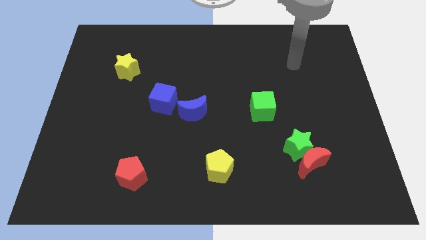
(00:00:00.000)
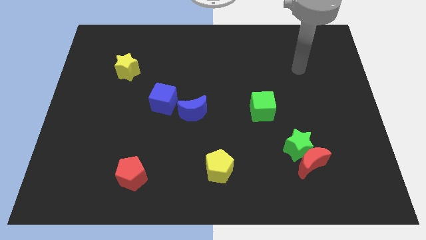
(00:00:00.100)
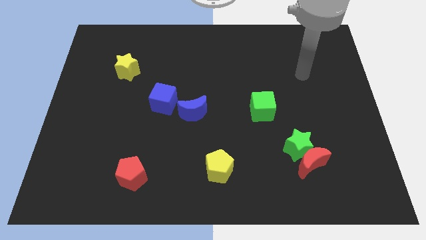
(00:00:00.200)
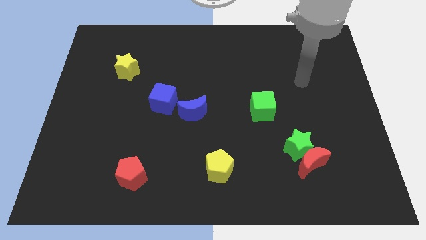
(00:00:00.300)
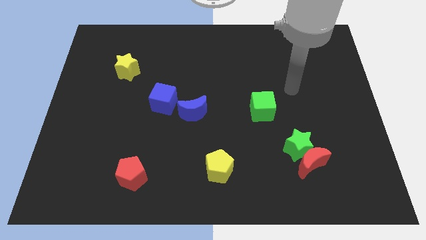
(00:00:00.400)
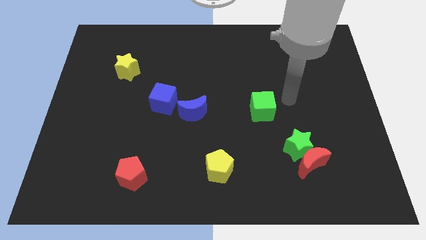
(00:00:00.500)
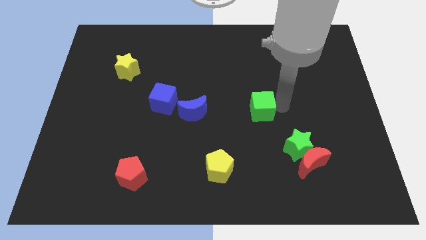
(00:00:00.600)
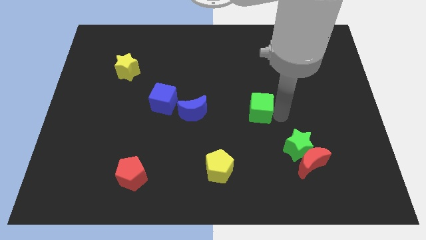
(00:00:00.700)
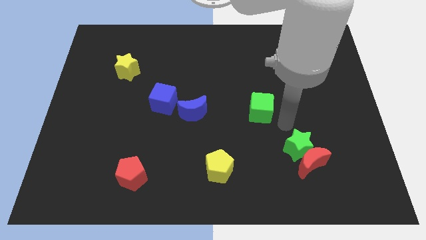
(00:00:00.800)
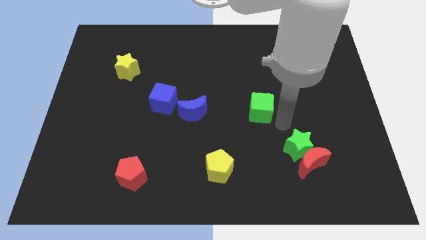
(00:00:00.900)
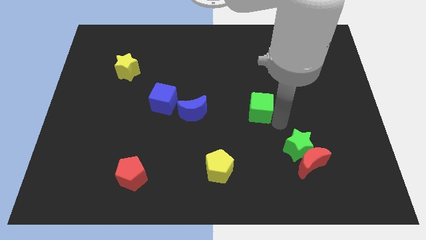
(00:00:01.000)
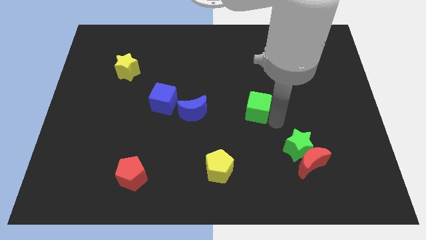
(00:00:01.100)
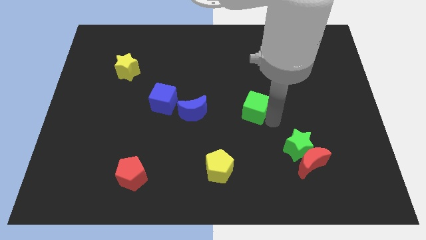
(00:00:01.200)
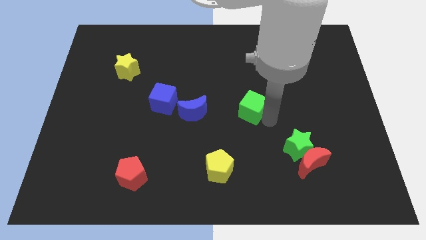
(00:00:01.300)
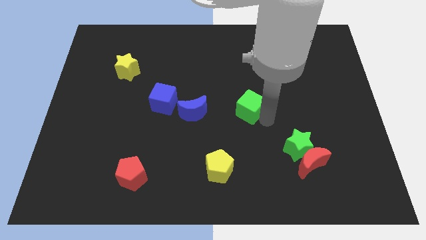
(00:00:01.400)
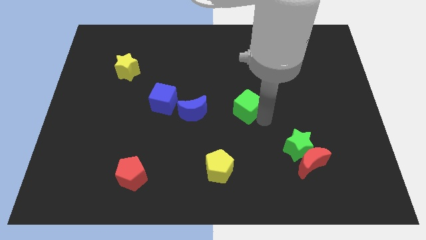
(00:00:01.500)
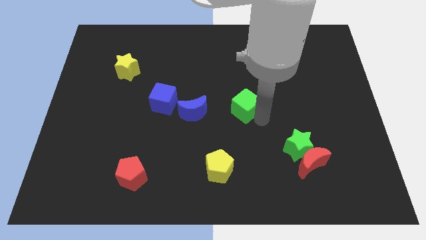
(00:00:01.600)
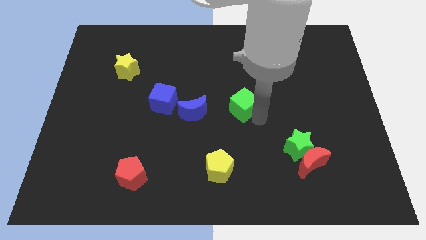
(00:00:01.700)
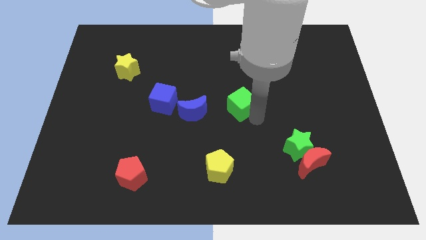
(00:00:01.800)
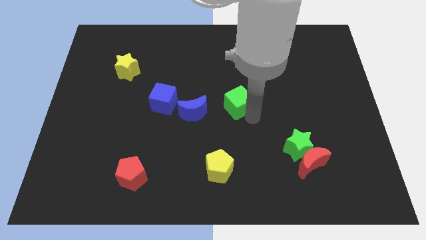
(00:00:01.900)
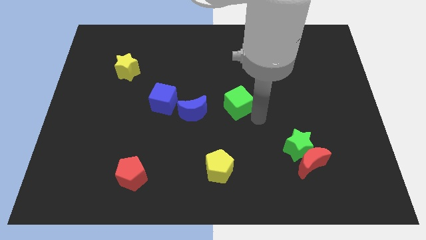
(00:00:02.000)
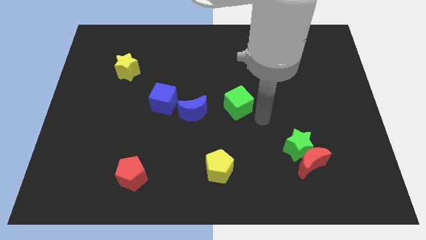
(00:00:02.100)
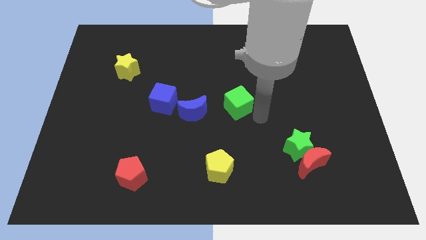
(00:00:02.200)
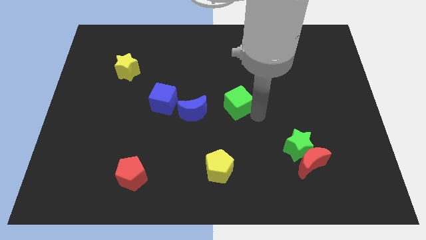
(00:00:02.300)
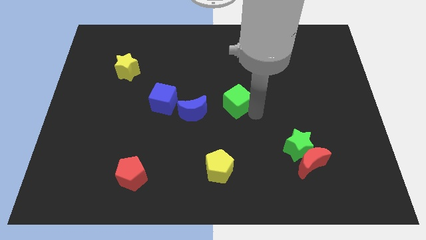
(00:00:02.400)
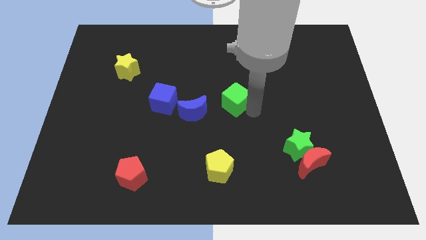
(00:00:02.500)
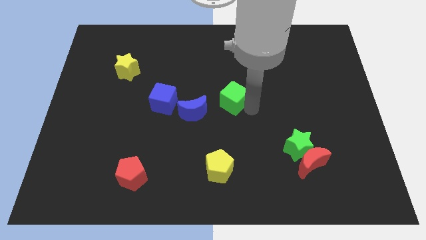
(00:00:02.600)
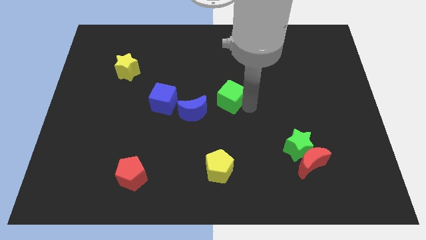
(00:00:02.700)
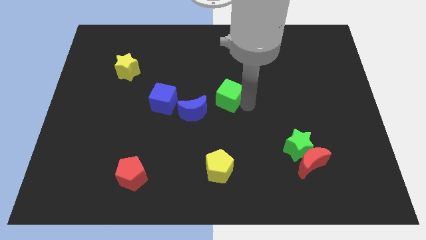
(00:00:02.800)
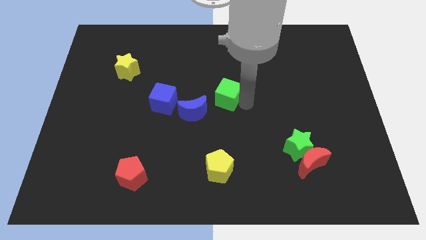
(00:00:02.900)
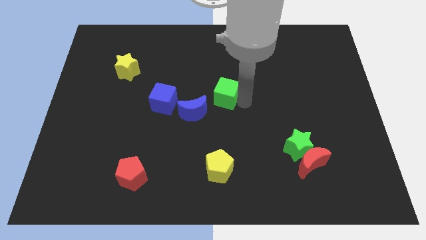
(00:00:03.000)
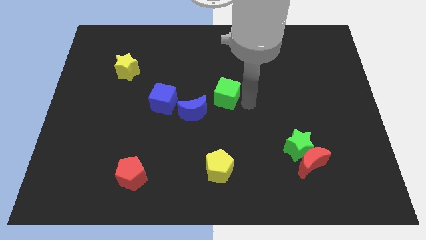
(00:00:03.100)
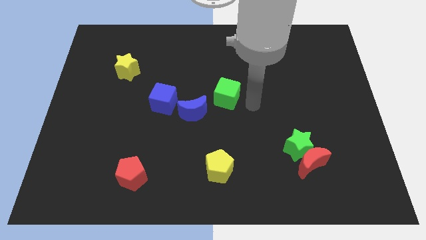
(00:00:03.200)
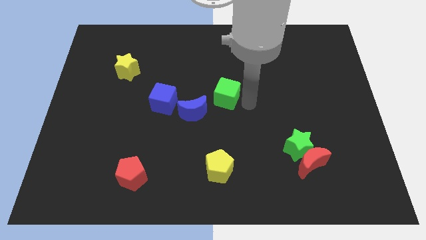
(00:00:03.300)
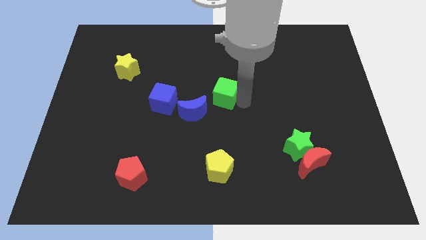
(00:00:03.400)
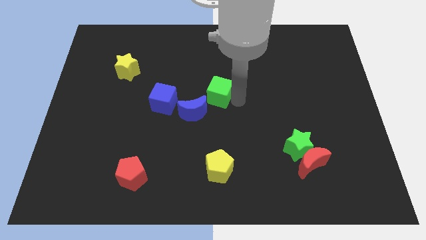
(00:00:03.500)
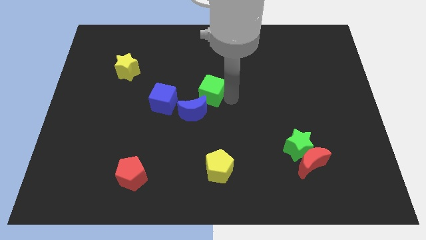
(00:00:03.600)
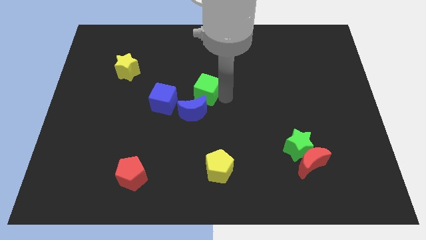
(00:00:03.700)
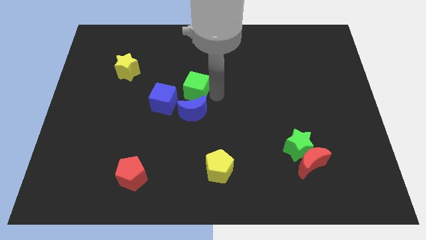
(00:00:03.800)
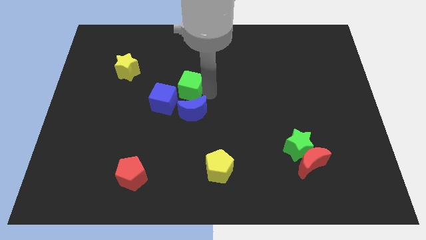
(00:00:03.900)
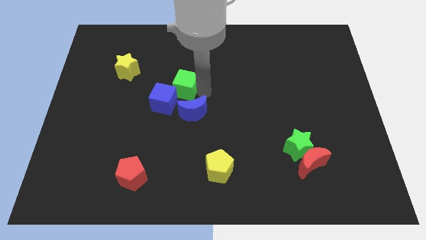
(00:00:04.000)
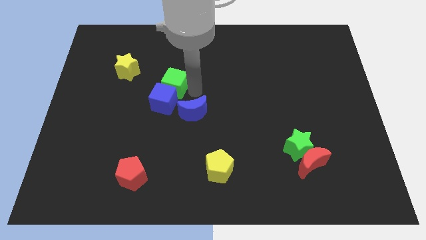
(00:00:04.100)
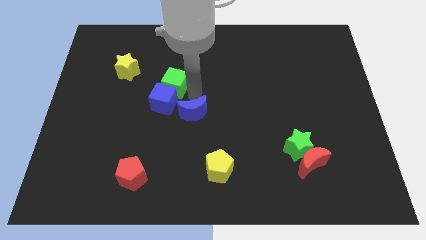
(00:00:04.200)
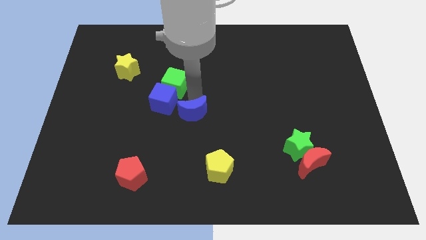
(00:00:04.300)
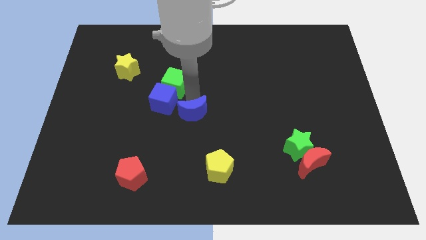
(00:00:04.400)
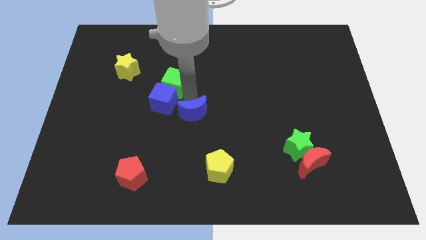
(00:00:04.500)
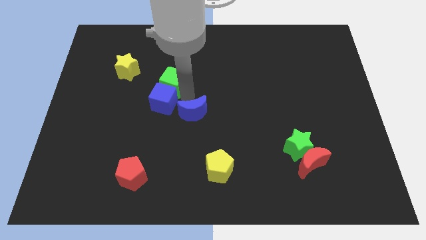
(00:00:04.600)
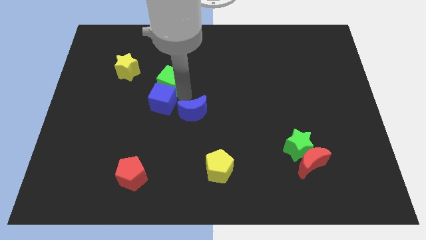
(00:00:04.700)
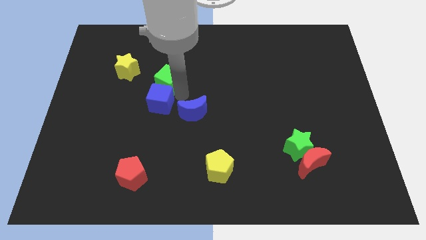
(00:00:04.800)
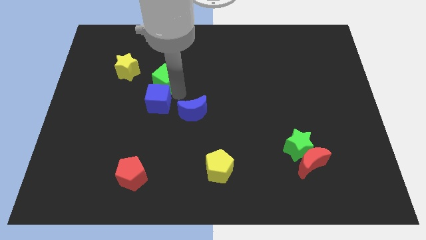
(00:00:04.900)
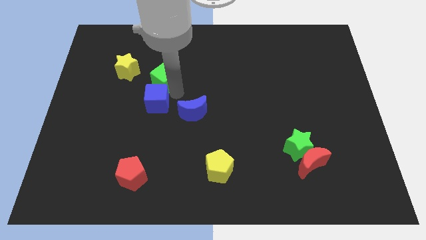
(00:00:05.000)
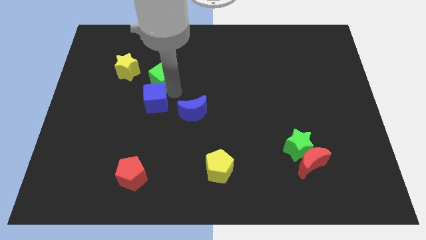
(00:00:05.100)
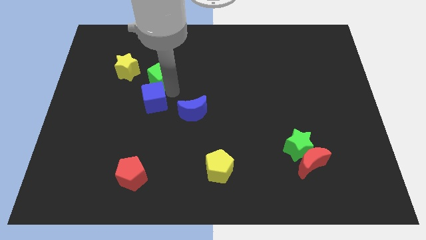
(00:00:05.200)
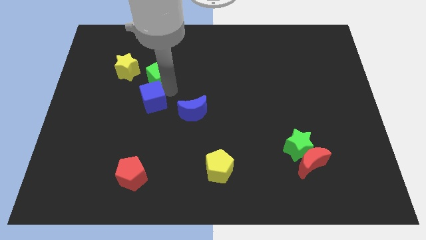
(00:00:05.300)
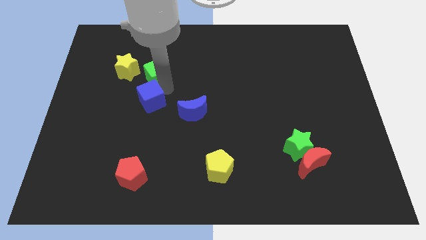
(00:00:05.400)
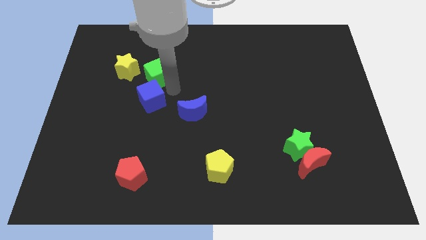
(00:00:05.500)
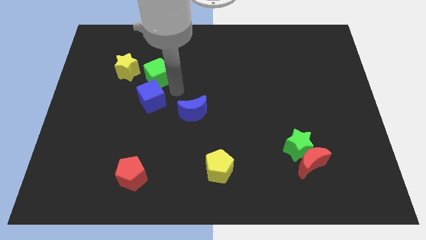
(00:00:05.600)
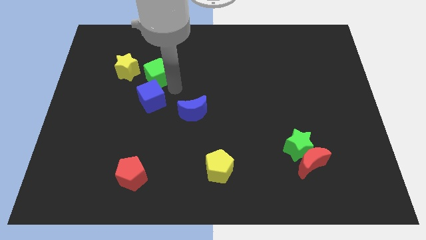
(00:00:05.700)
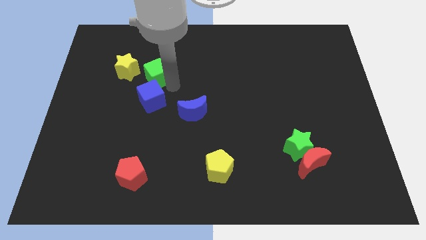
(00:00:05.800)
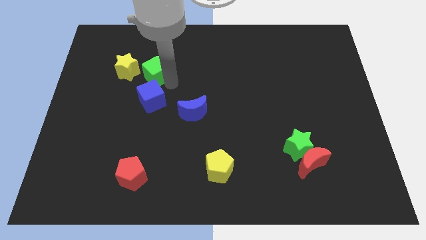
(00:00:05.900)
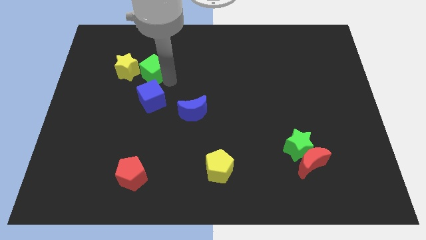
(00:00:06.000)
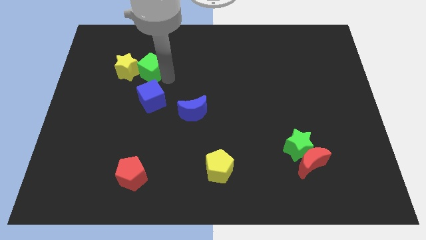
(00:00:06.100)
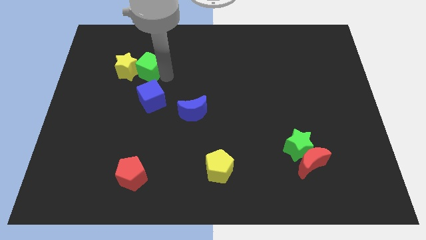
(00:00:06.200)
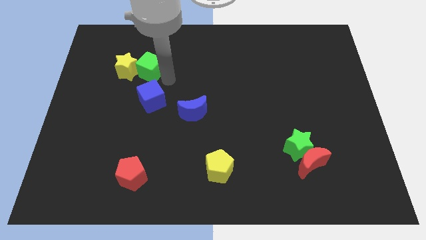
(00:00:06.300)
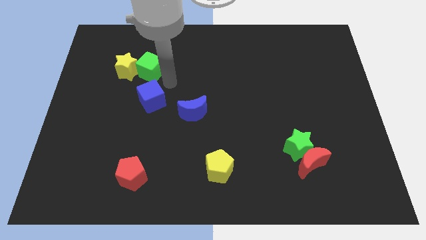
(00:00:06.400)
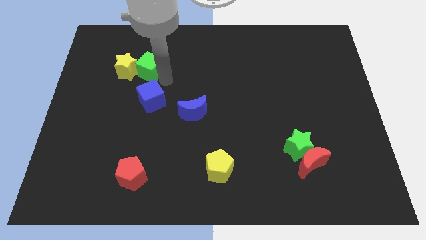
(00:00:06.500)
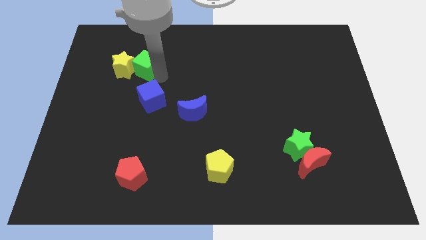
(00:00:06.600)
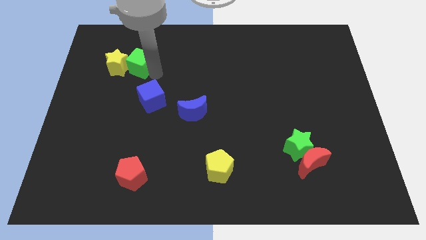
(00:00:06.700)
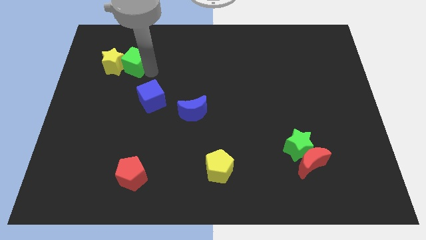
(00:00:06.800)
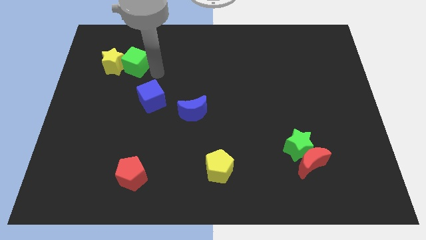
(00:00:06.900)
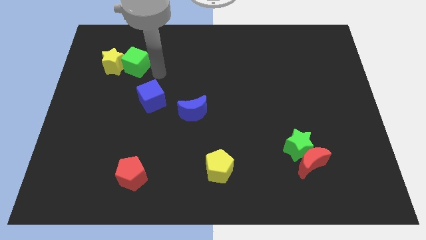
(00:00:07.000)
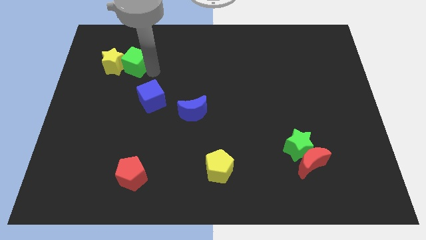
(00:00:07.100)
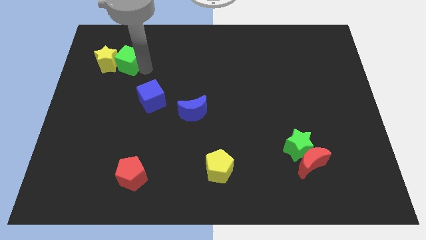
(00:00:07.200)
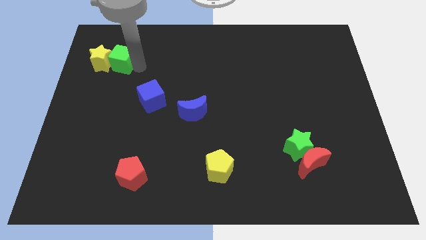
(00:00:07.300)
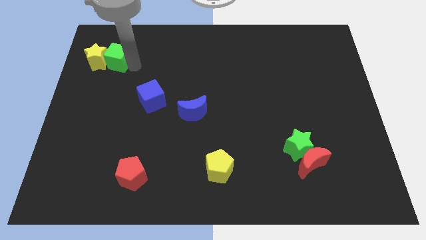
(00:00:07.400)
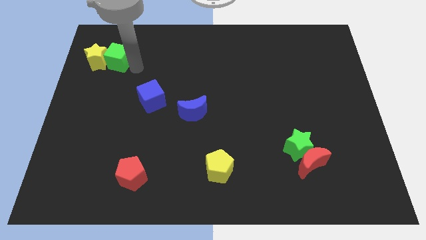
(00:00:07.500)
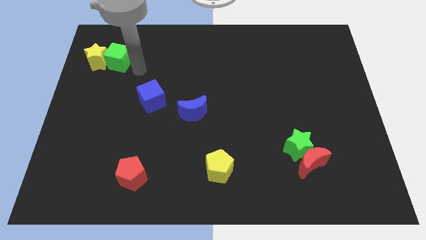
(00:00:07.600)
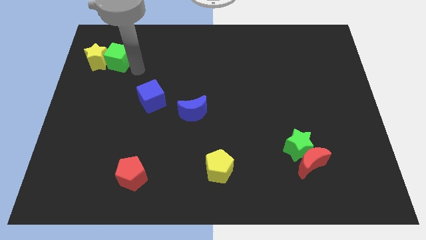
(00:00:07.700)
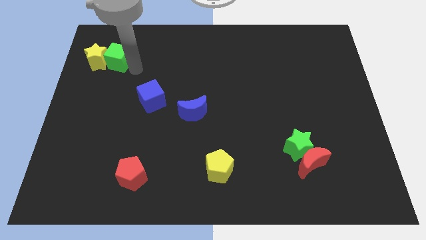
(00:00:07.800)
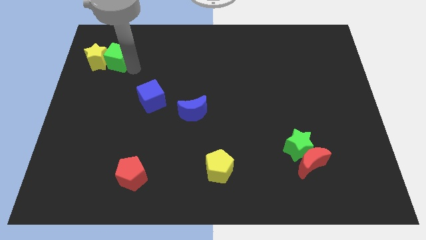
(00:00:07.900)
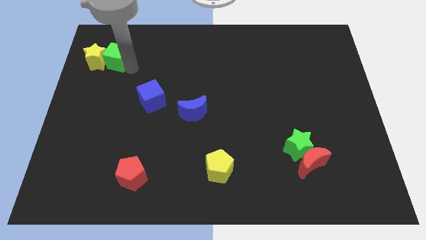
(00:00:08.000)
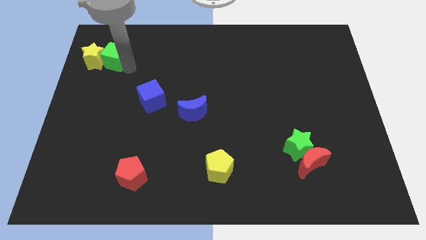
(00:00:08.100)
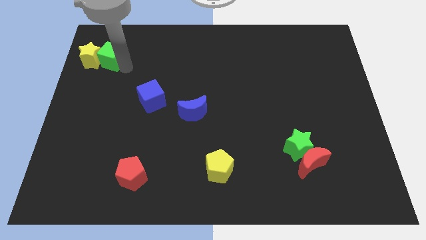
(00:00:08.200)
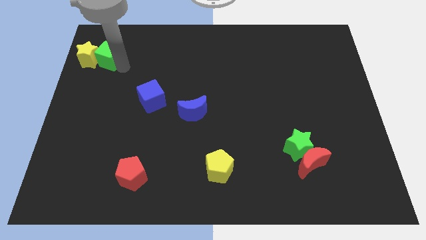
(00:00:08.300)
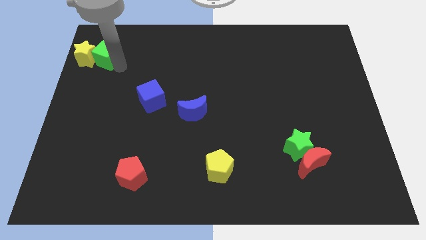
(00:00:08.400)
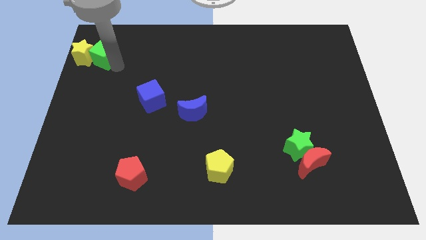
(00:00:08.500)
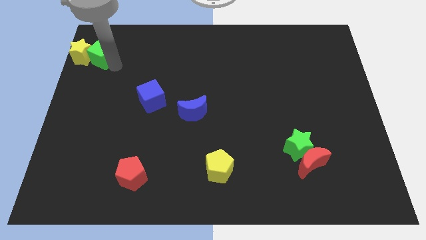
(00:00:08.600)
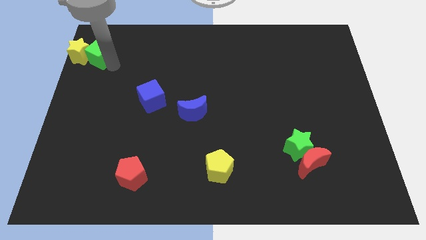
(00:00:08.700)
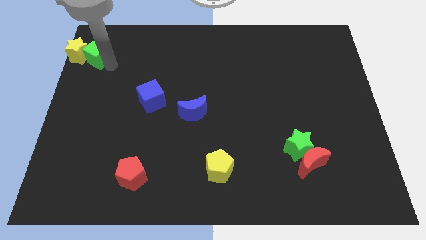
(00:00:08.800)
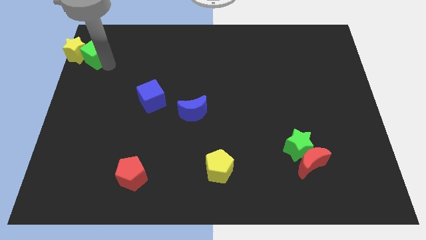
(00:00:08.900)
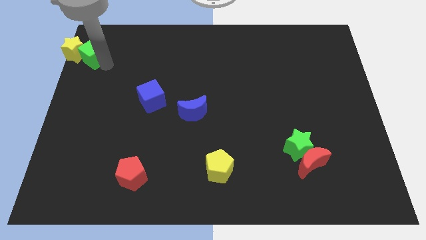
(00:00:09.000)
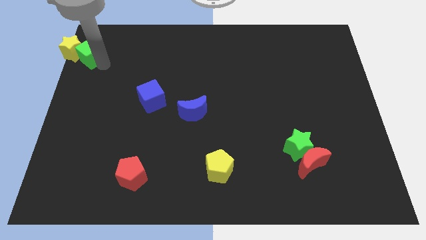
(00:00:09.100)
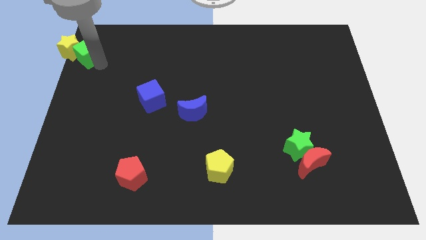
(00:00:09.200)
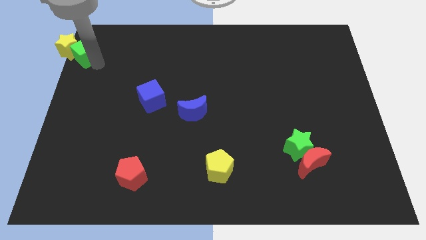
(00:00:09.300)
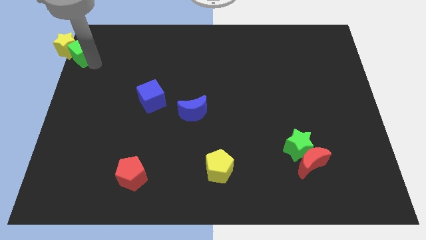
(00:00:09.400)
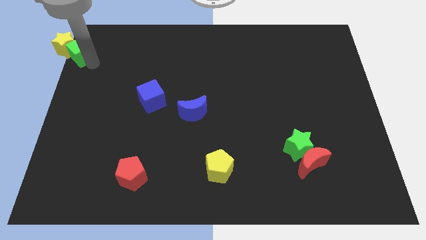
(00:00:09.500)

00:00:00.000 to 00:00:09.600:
push the green cube to the top left of the board
